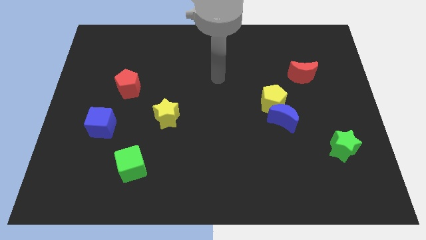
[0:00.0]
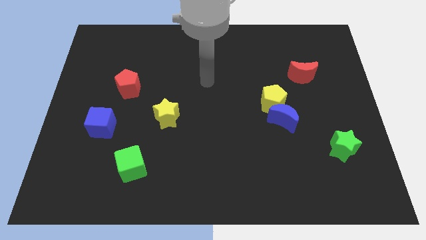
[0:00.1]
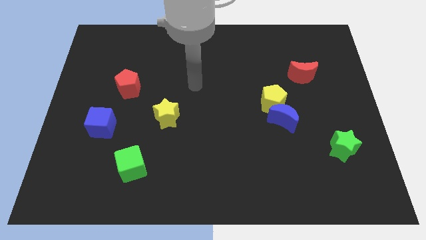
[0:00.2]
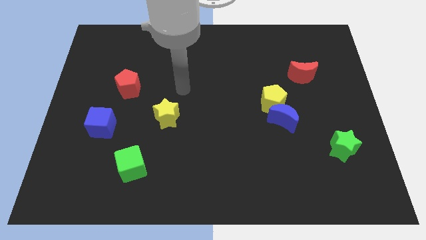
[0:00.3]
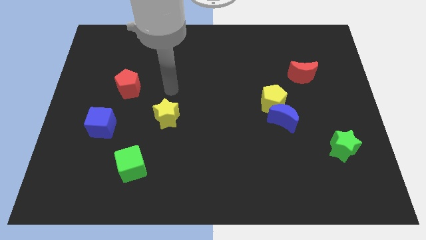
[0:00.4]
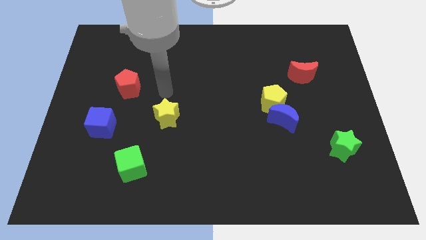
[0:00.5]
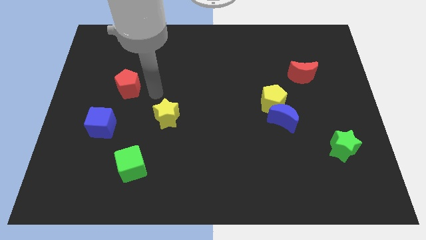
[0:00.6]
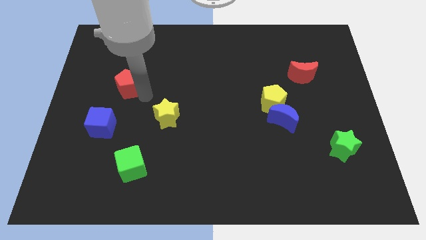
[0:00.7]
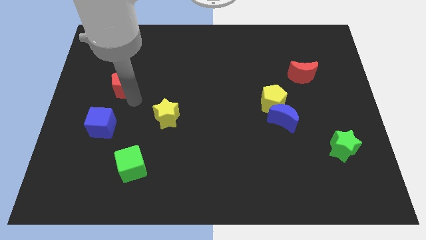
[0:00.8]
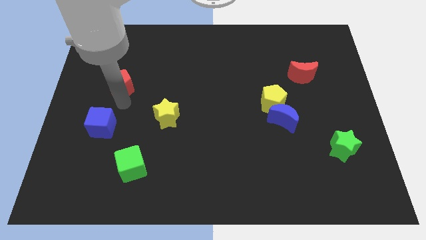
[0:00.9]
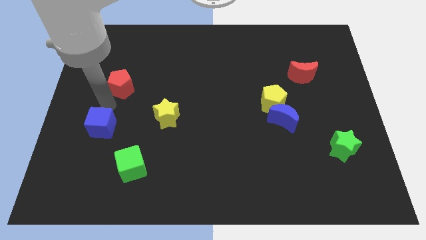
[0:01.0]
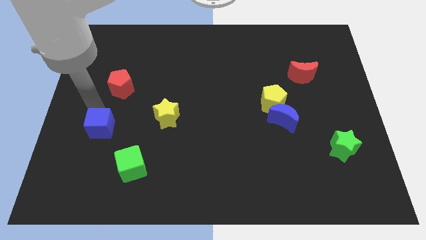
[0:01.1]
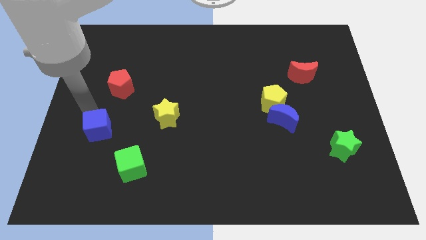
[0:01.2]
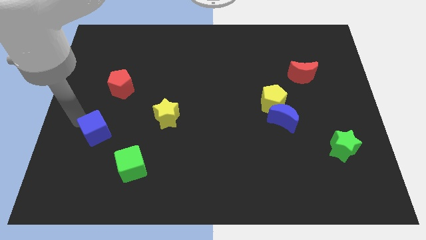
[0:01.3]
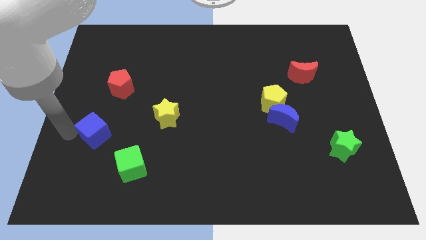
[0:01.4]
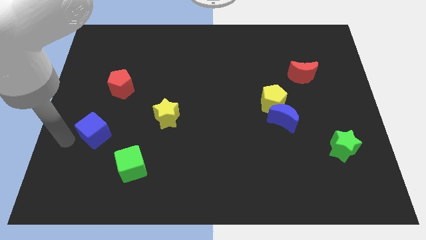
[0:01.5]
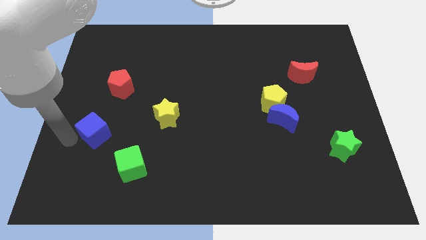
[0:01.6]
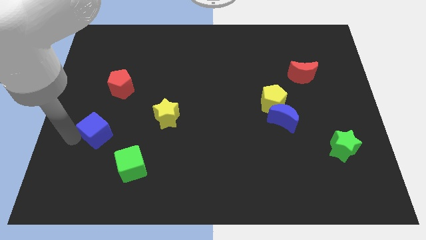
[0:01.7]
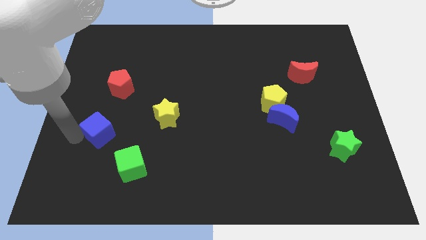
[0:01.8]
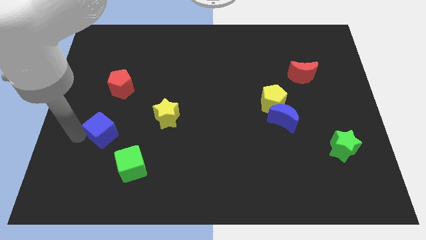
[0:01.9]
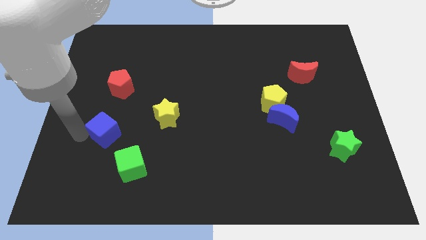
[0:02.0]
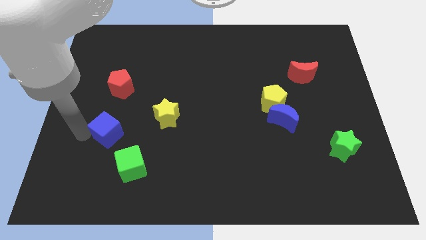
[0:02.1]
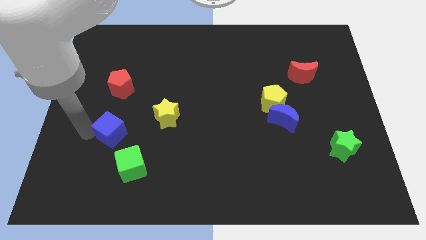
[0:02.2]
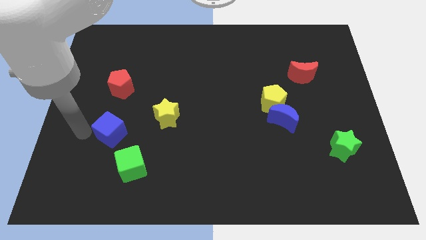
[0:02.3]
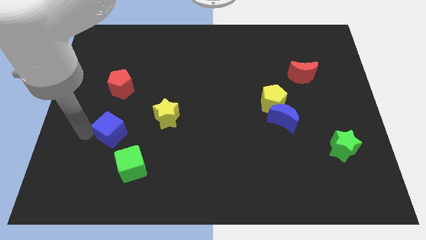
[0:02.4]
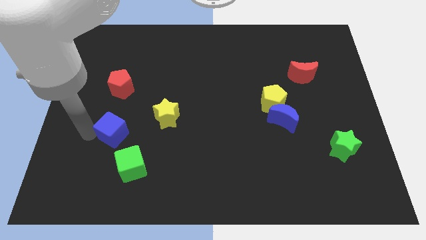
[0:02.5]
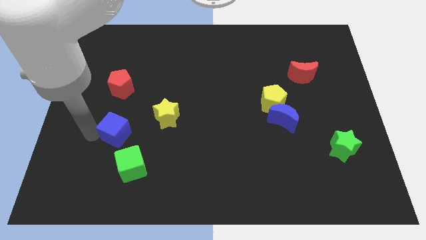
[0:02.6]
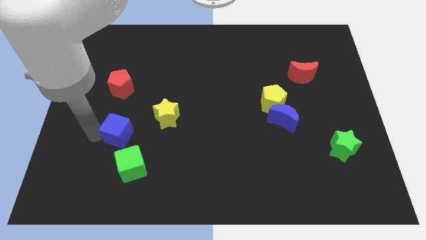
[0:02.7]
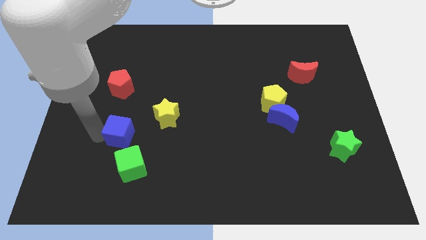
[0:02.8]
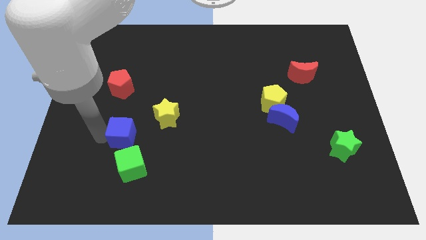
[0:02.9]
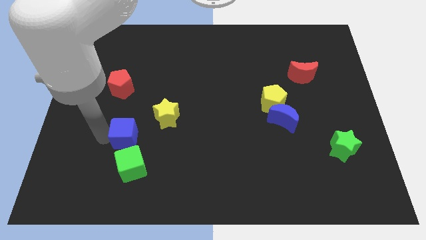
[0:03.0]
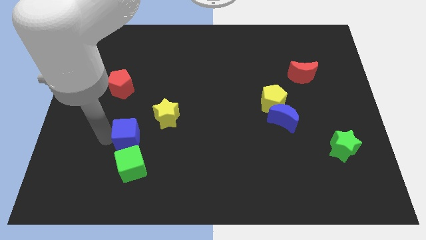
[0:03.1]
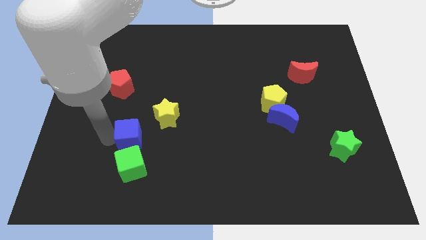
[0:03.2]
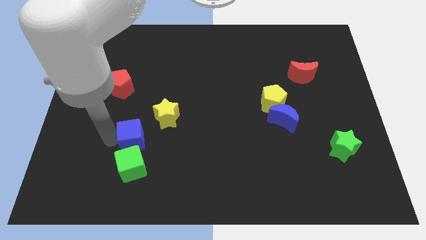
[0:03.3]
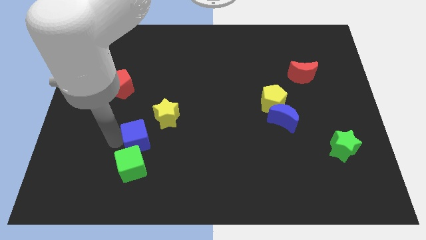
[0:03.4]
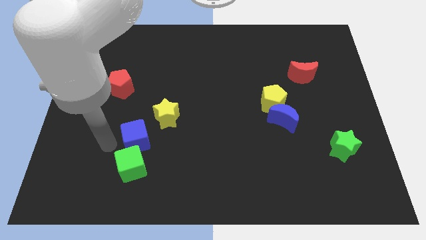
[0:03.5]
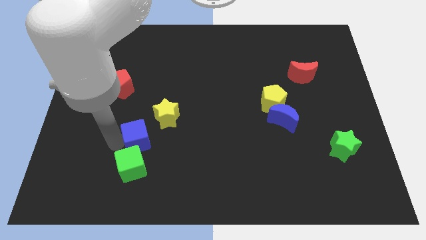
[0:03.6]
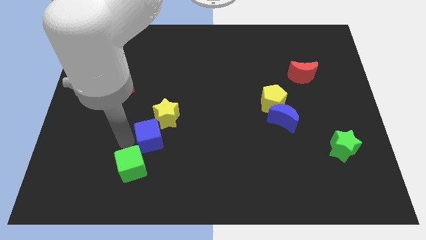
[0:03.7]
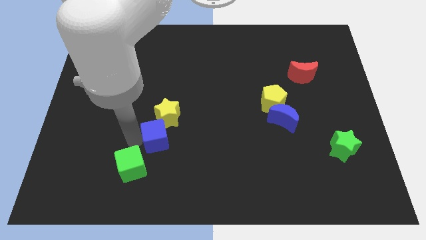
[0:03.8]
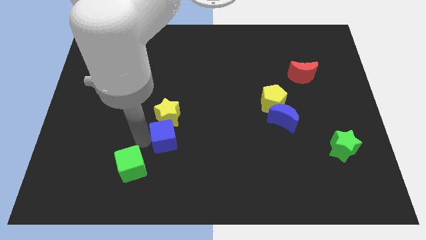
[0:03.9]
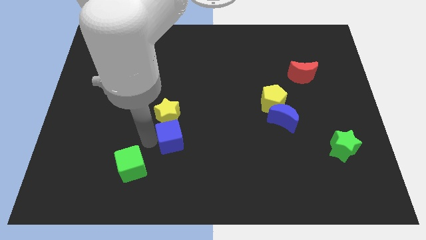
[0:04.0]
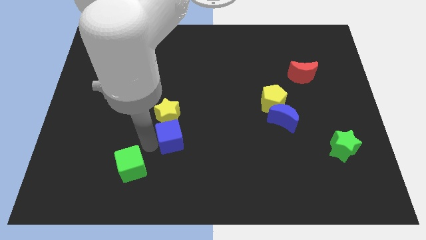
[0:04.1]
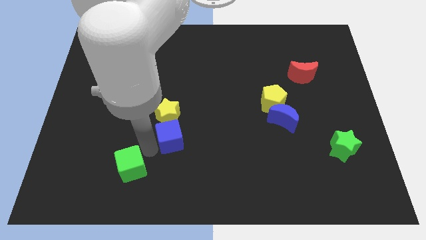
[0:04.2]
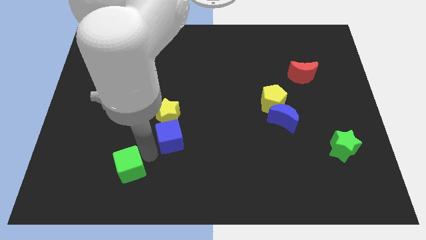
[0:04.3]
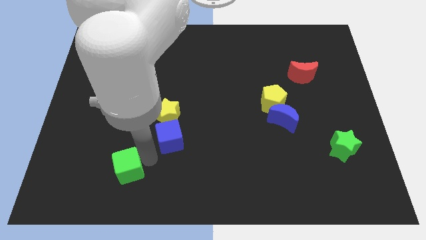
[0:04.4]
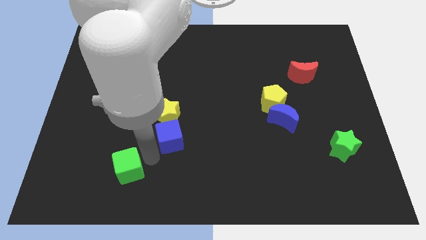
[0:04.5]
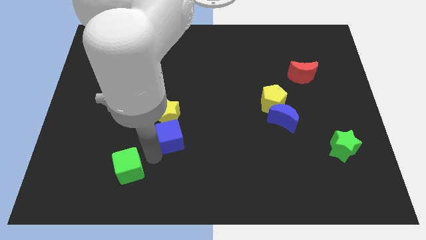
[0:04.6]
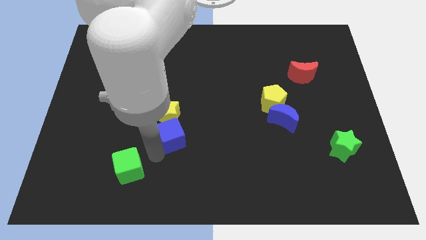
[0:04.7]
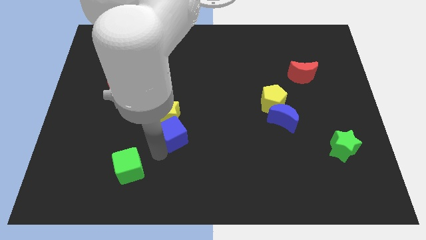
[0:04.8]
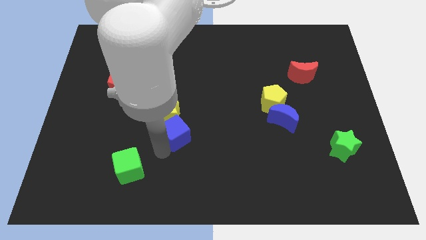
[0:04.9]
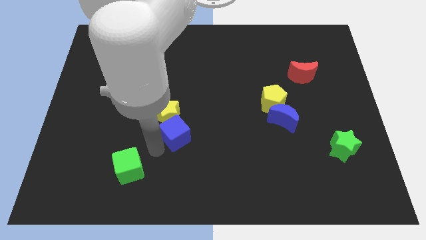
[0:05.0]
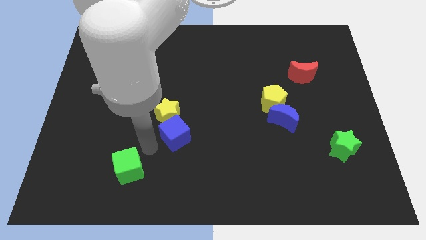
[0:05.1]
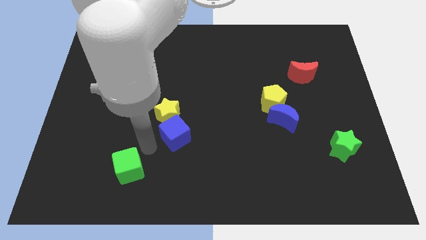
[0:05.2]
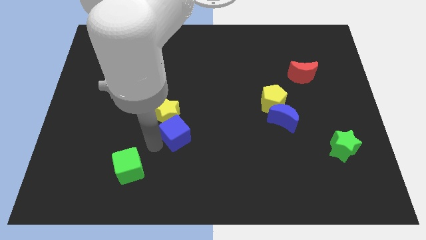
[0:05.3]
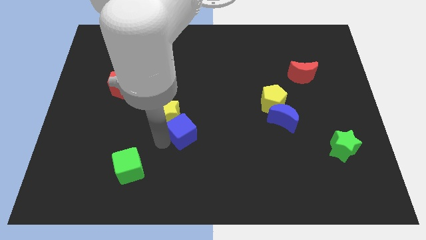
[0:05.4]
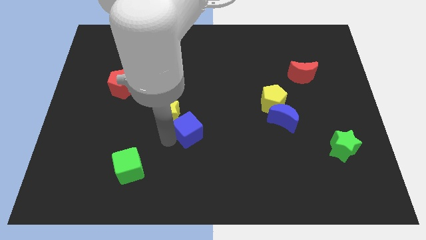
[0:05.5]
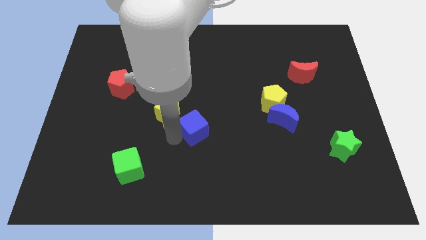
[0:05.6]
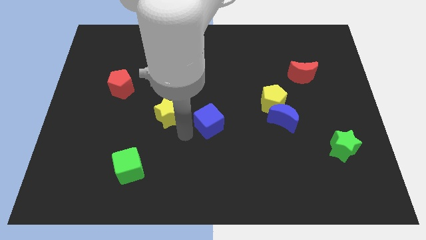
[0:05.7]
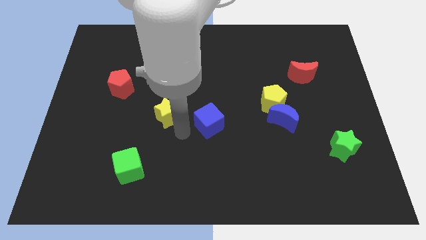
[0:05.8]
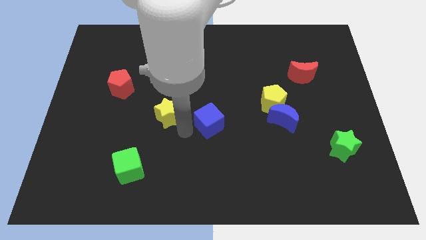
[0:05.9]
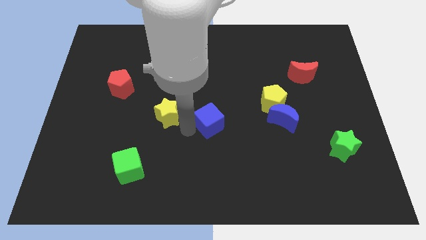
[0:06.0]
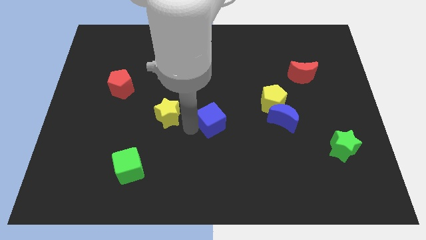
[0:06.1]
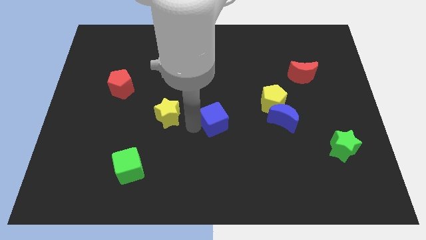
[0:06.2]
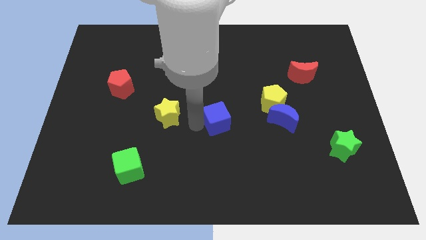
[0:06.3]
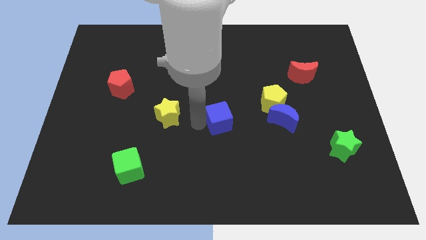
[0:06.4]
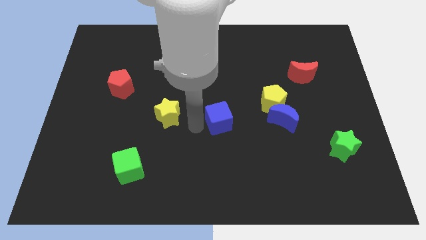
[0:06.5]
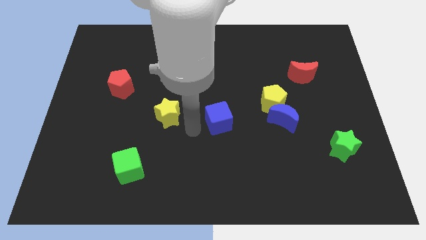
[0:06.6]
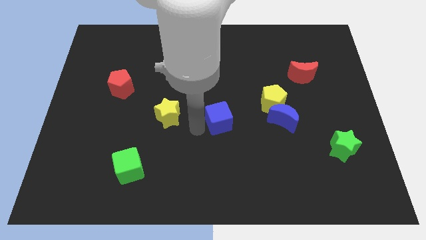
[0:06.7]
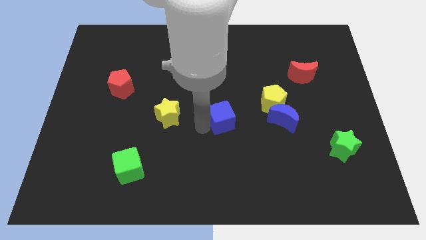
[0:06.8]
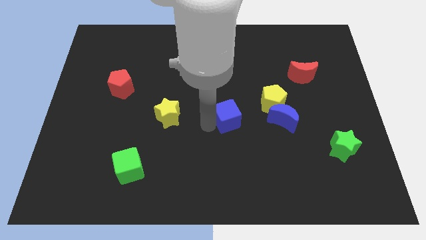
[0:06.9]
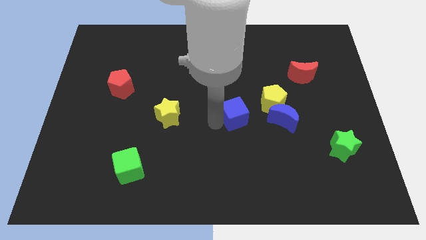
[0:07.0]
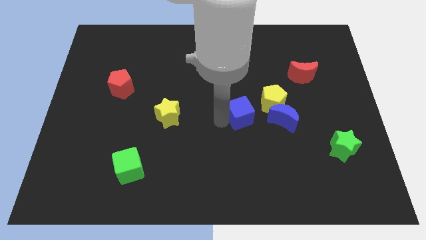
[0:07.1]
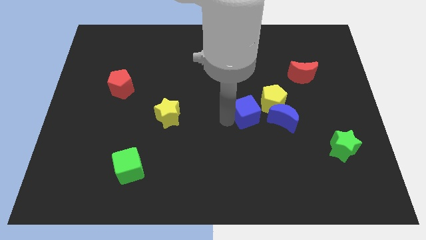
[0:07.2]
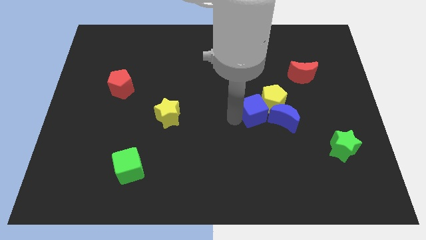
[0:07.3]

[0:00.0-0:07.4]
push the blue cube to the yellow pentagon
